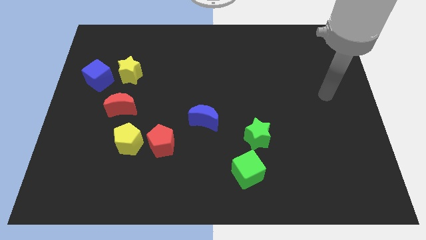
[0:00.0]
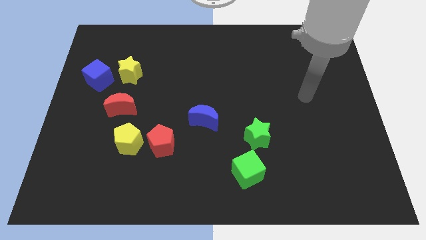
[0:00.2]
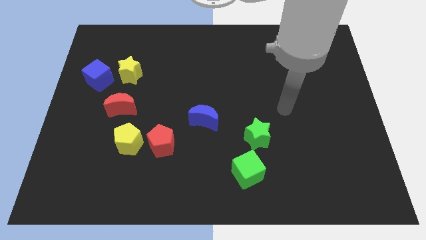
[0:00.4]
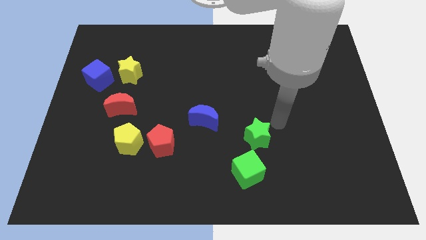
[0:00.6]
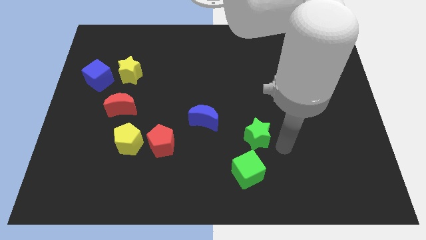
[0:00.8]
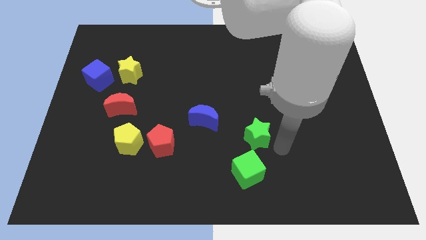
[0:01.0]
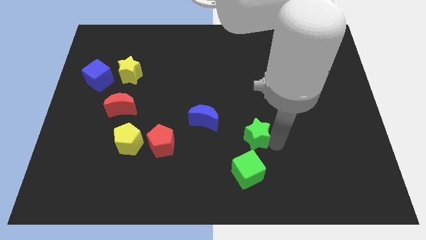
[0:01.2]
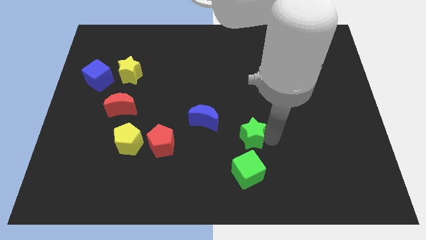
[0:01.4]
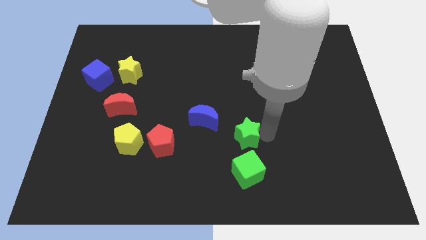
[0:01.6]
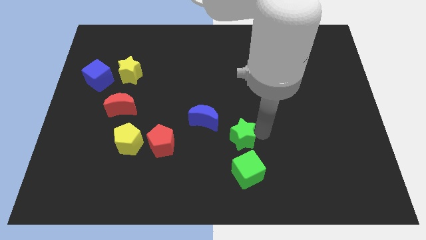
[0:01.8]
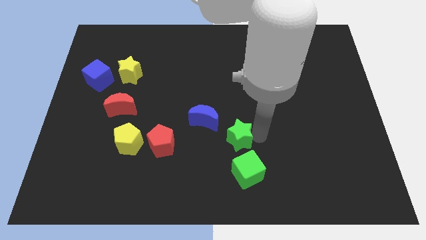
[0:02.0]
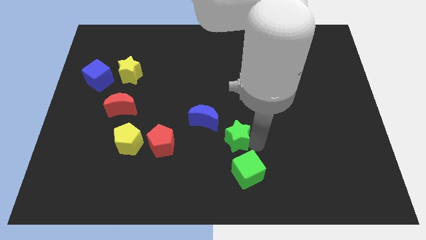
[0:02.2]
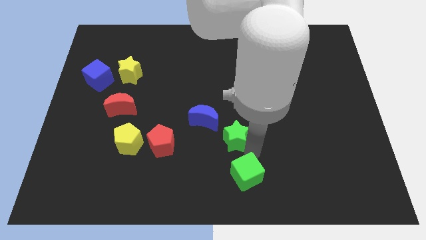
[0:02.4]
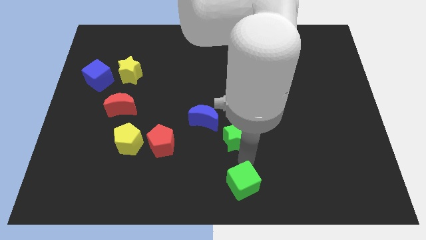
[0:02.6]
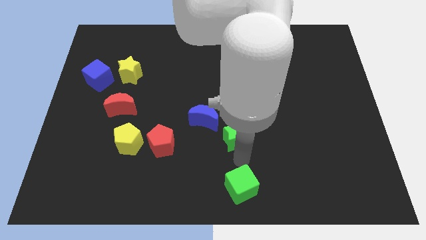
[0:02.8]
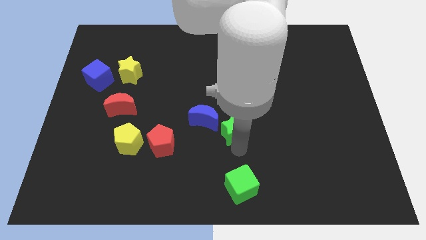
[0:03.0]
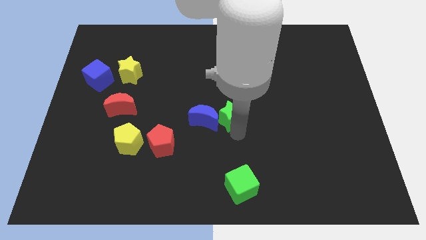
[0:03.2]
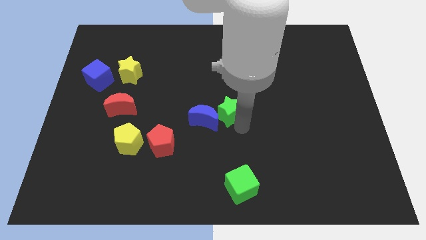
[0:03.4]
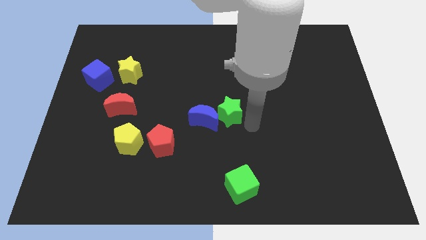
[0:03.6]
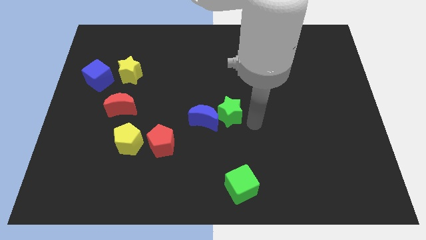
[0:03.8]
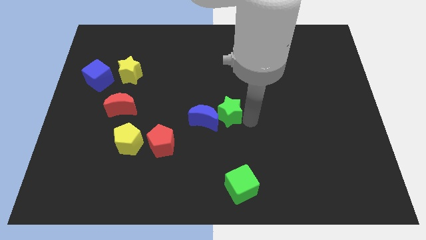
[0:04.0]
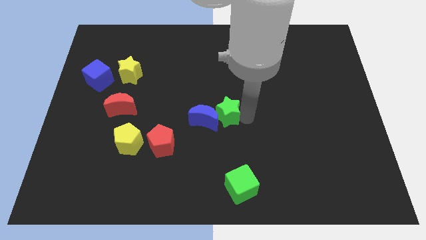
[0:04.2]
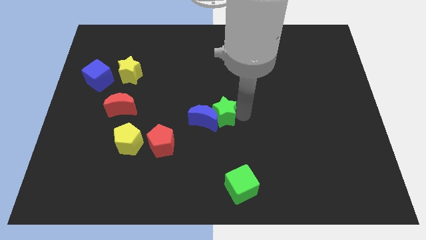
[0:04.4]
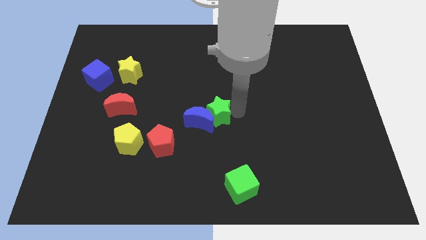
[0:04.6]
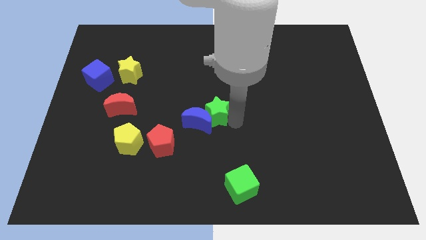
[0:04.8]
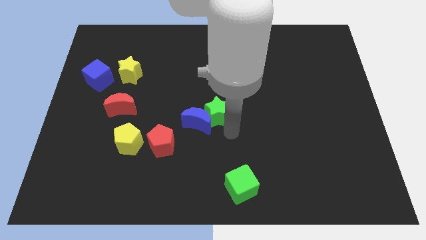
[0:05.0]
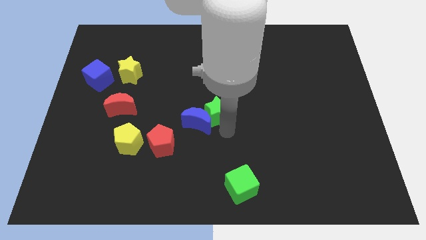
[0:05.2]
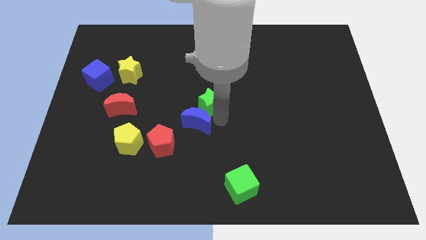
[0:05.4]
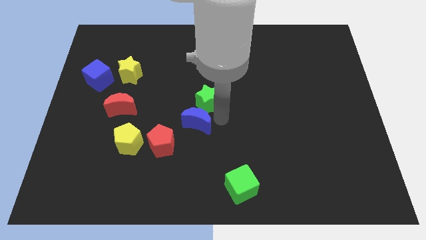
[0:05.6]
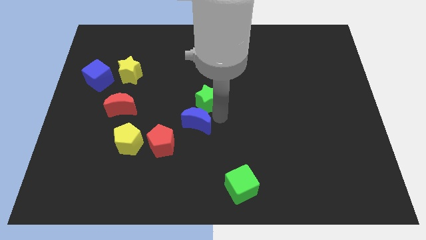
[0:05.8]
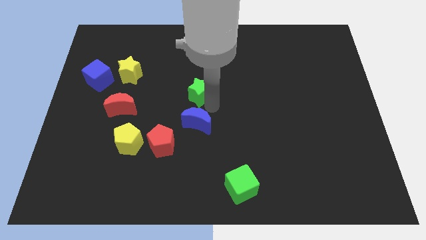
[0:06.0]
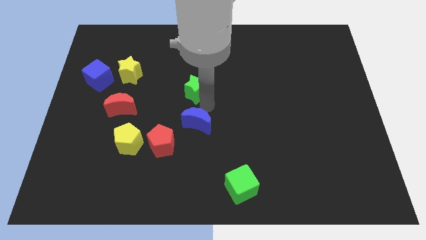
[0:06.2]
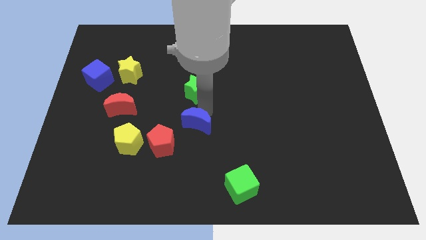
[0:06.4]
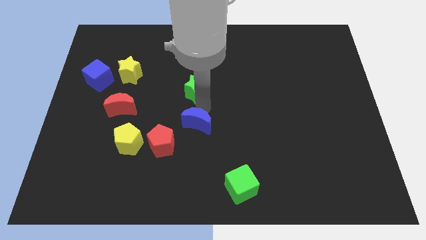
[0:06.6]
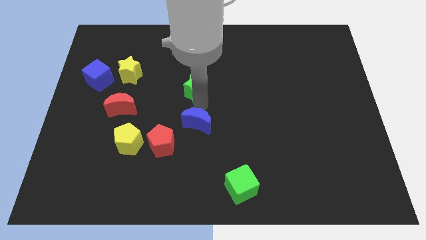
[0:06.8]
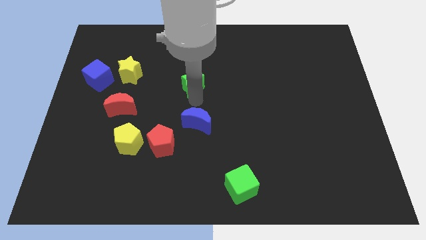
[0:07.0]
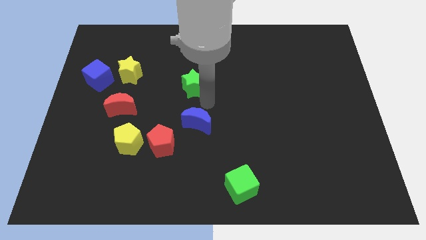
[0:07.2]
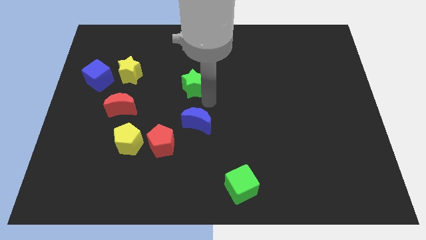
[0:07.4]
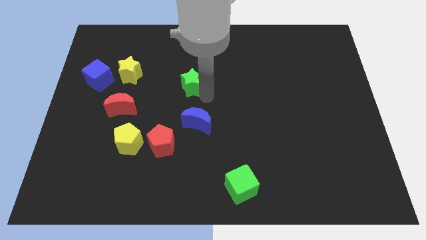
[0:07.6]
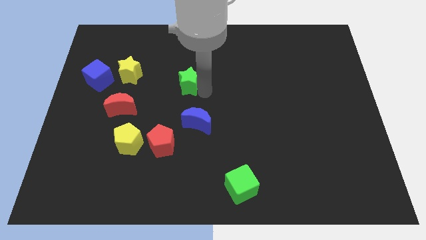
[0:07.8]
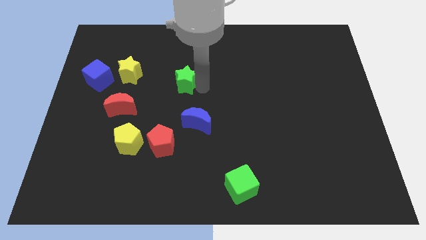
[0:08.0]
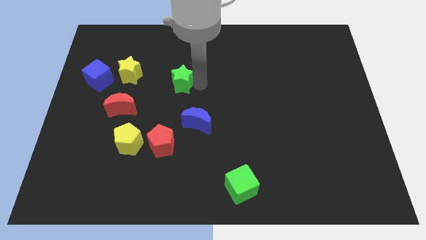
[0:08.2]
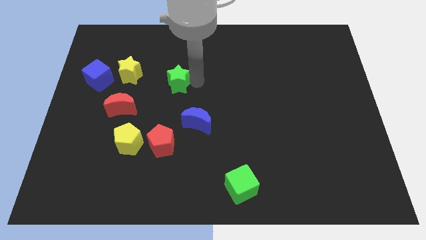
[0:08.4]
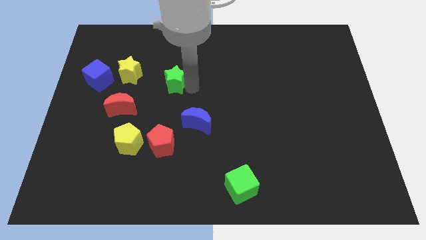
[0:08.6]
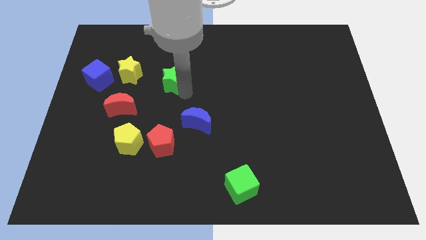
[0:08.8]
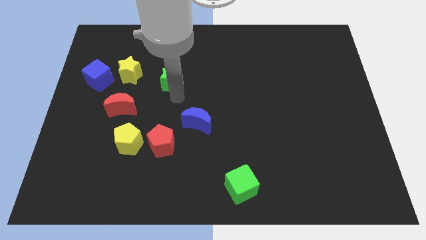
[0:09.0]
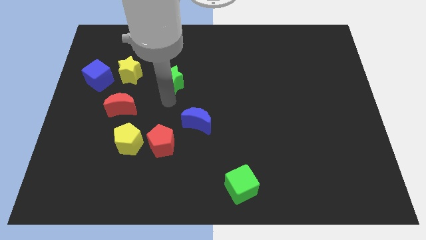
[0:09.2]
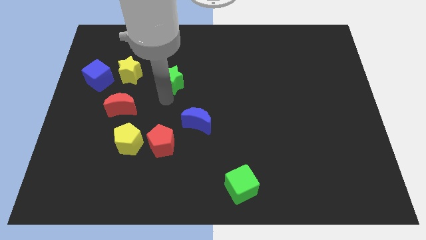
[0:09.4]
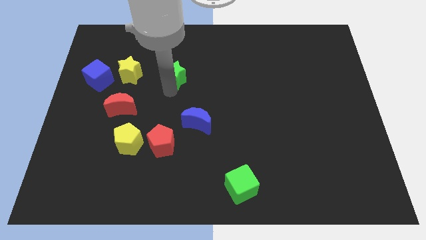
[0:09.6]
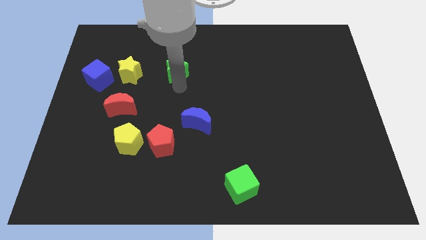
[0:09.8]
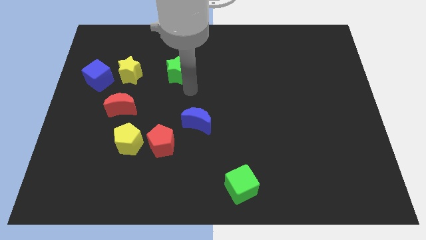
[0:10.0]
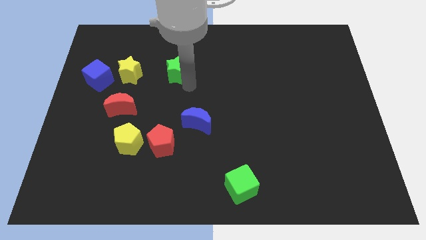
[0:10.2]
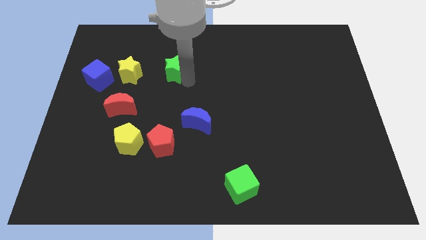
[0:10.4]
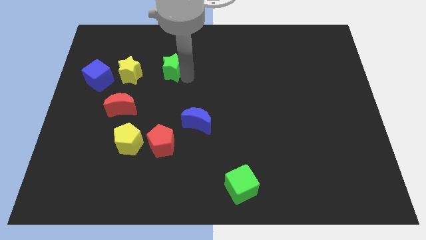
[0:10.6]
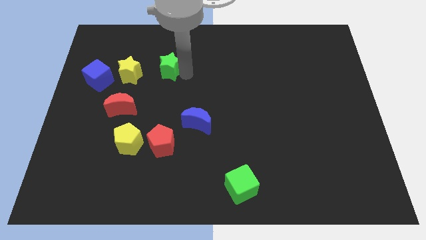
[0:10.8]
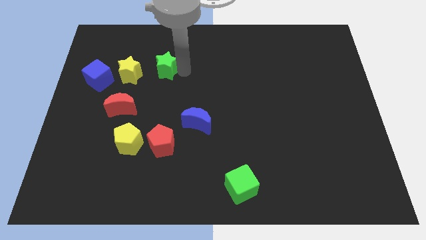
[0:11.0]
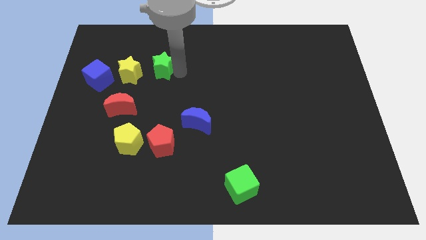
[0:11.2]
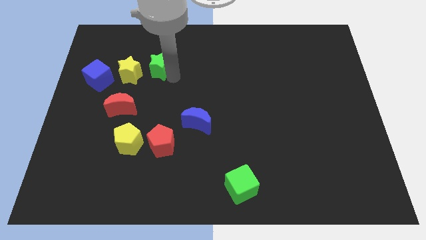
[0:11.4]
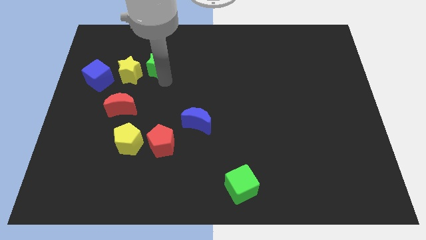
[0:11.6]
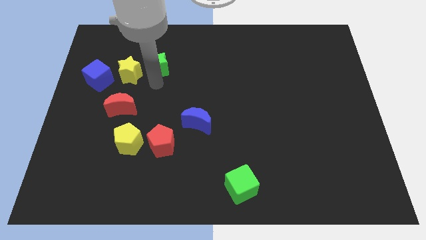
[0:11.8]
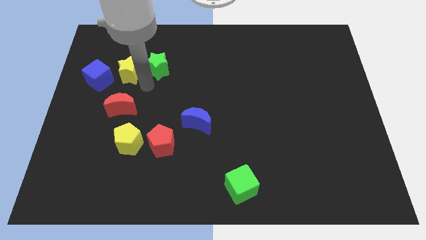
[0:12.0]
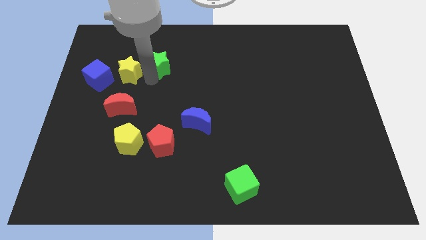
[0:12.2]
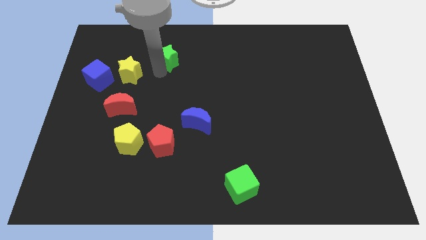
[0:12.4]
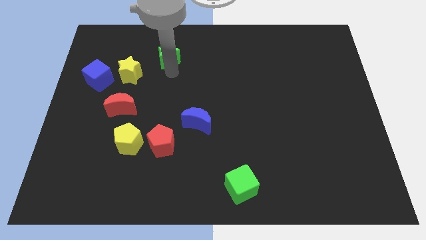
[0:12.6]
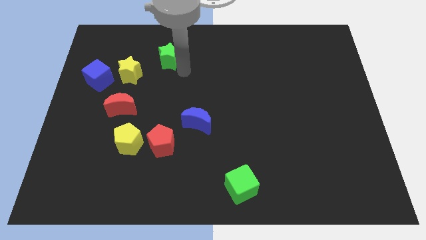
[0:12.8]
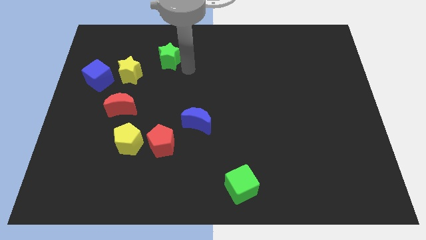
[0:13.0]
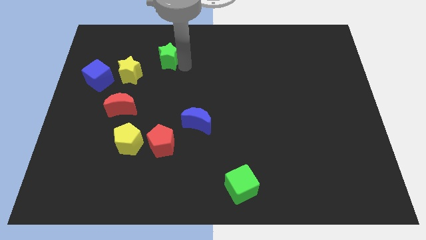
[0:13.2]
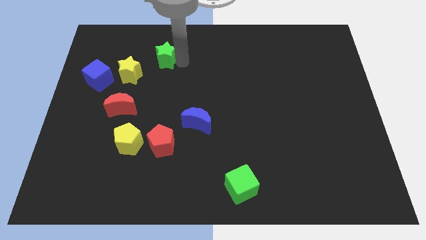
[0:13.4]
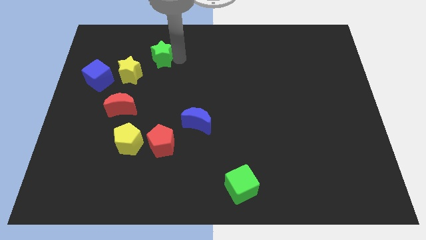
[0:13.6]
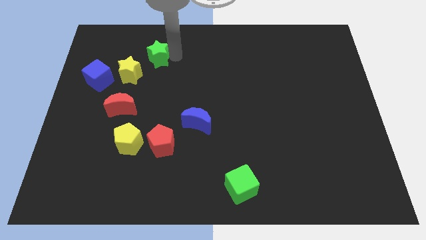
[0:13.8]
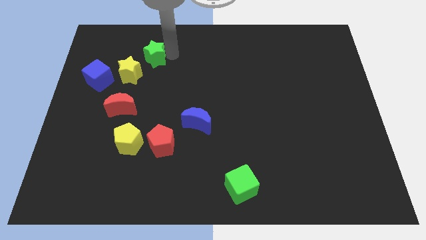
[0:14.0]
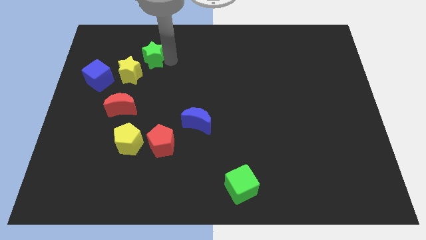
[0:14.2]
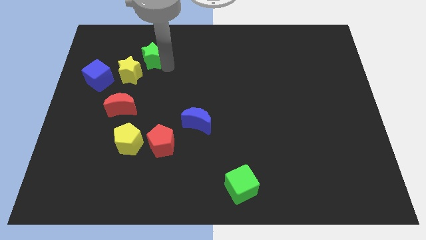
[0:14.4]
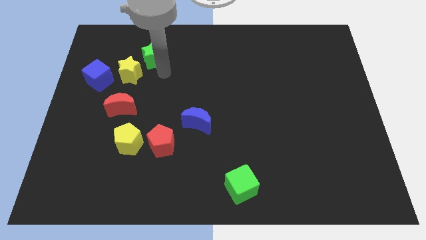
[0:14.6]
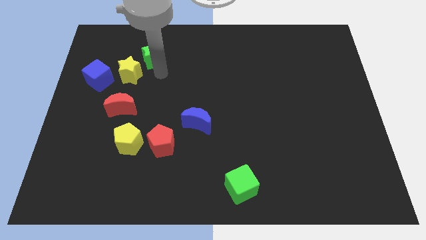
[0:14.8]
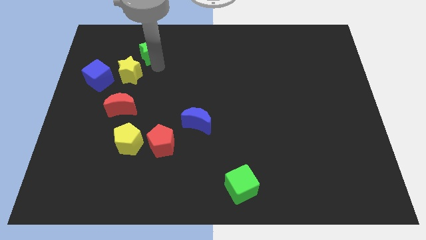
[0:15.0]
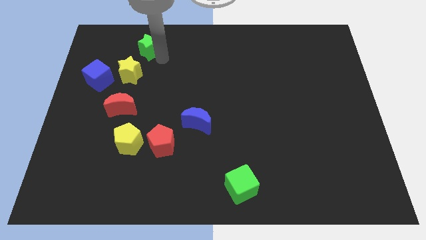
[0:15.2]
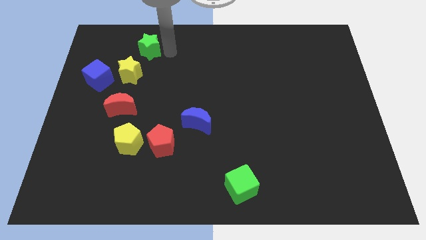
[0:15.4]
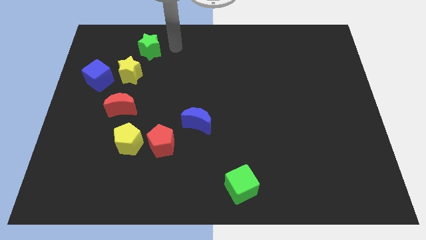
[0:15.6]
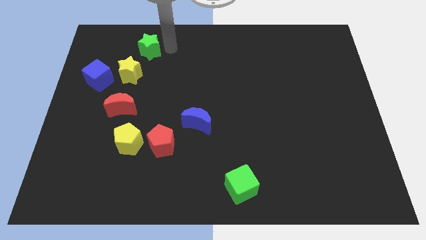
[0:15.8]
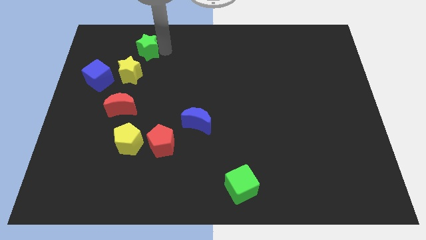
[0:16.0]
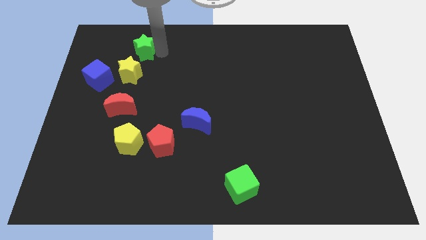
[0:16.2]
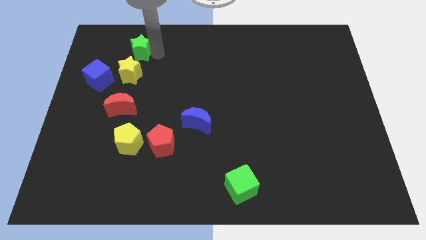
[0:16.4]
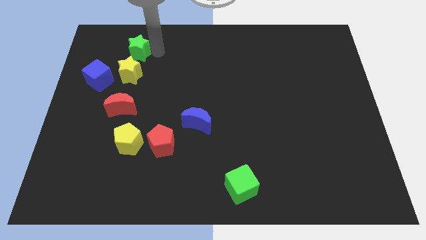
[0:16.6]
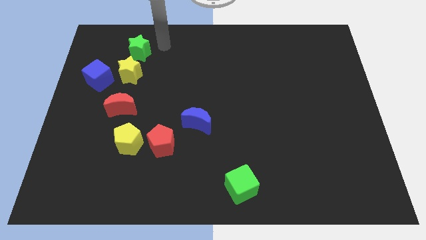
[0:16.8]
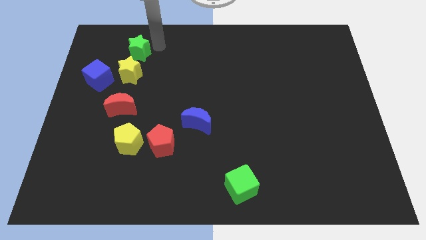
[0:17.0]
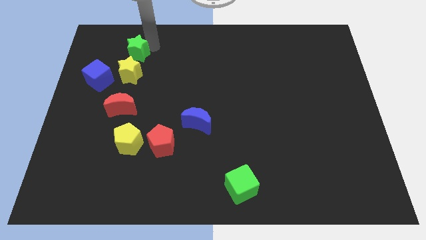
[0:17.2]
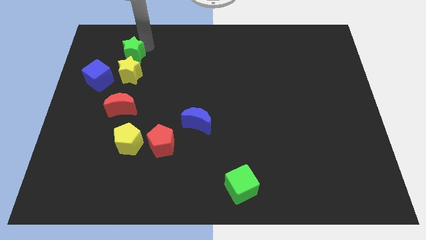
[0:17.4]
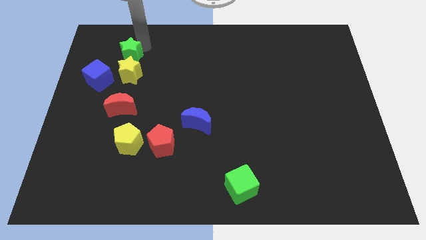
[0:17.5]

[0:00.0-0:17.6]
slide the green star to the top left side of the yellow star
